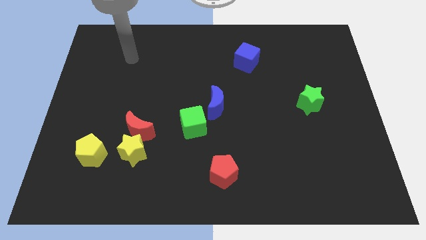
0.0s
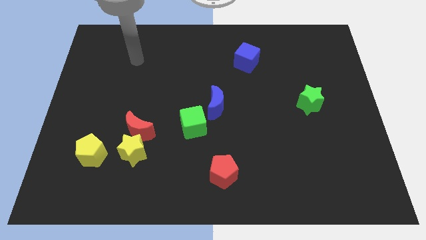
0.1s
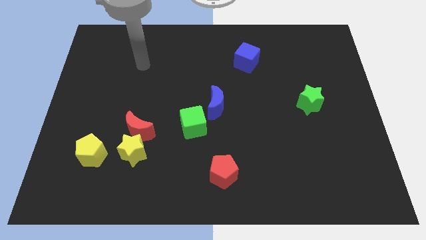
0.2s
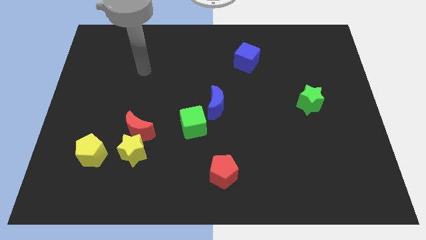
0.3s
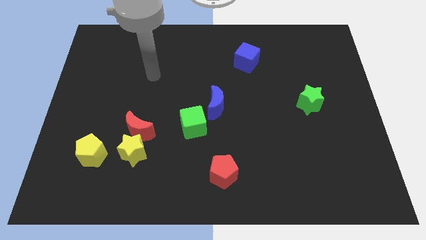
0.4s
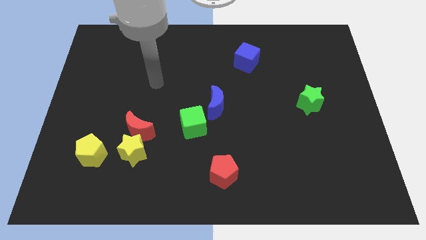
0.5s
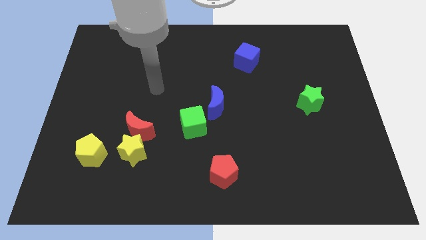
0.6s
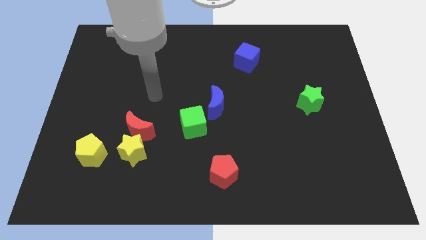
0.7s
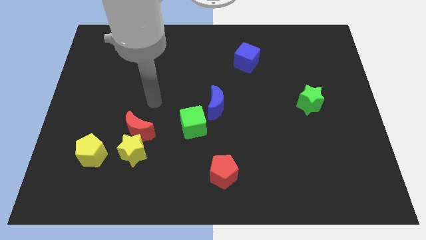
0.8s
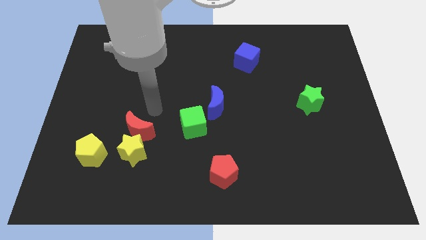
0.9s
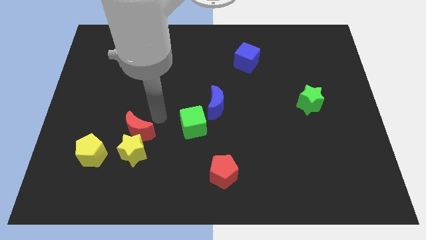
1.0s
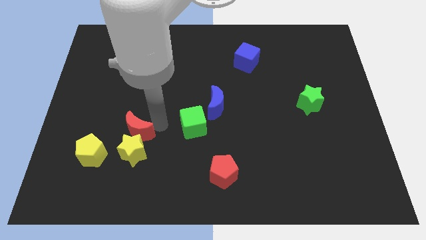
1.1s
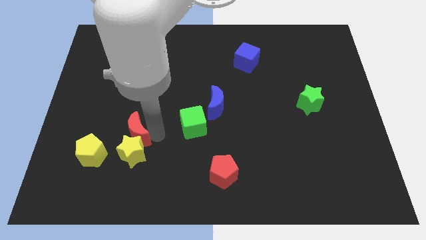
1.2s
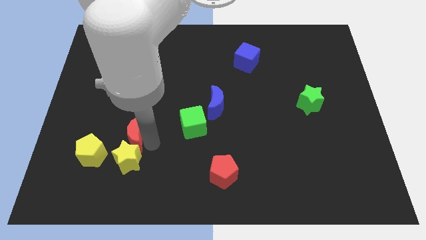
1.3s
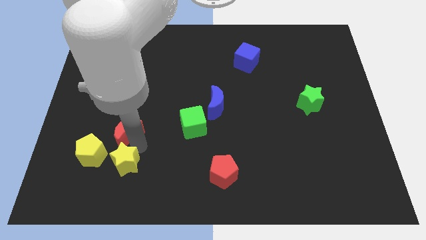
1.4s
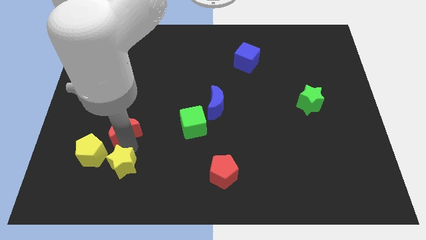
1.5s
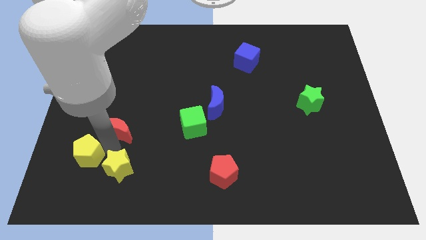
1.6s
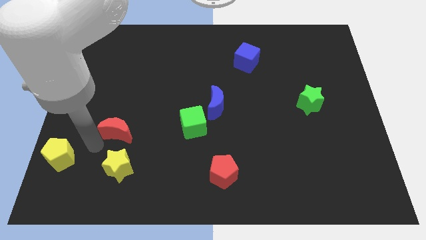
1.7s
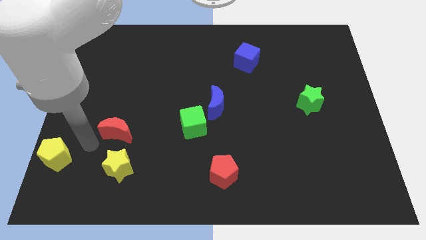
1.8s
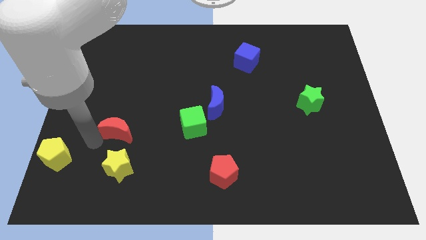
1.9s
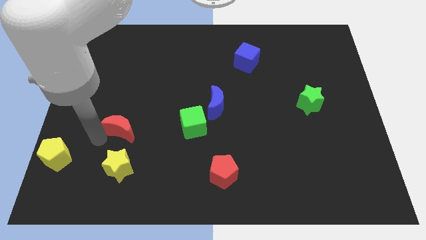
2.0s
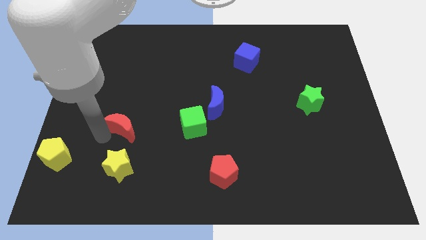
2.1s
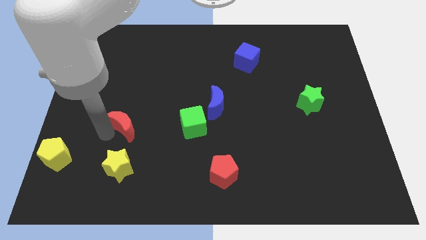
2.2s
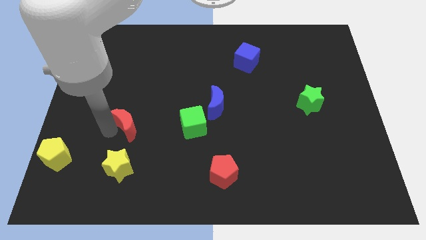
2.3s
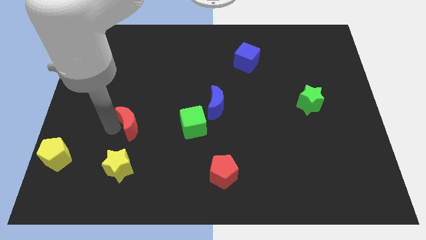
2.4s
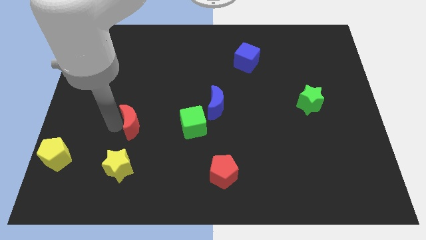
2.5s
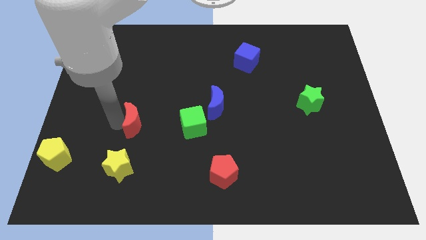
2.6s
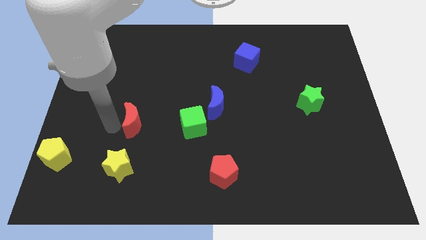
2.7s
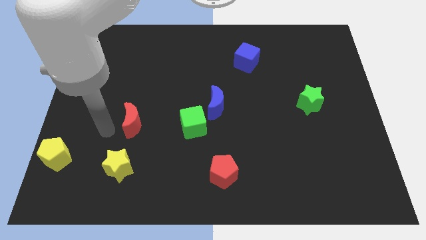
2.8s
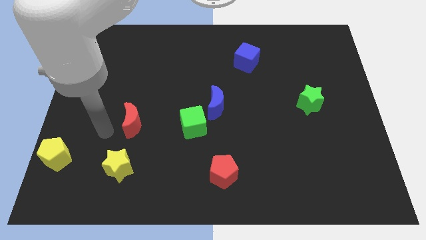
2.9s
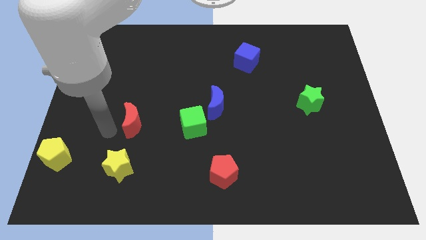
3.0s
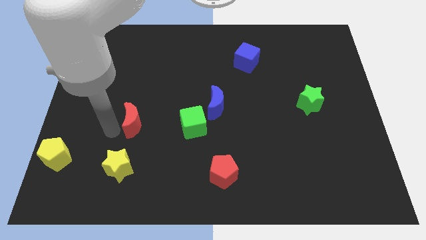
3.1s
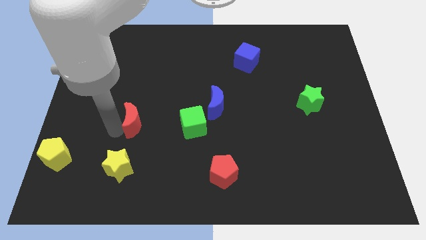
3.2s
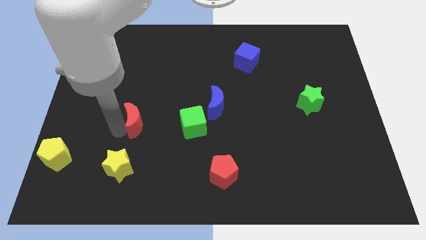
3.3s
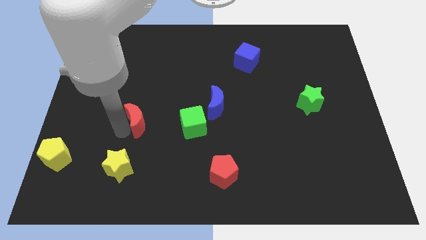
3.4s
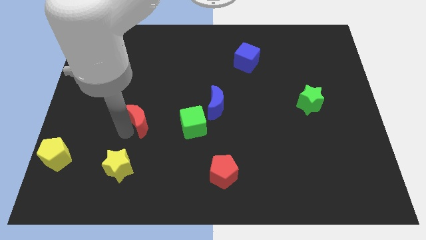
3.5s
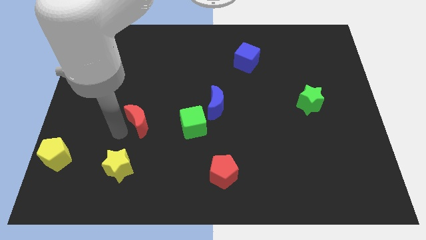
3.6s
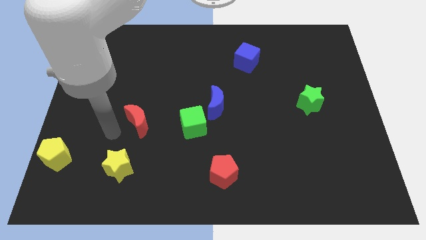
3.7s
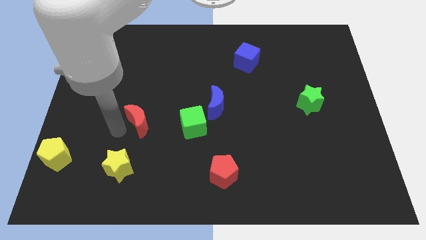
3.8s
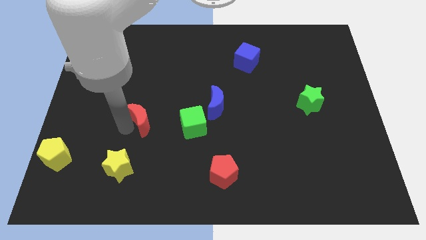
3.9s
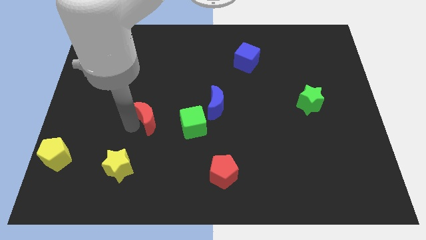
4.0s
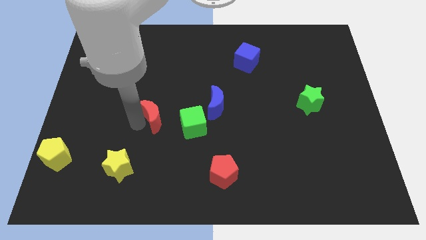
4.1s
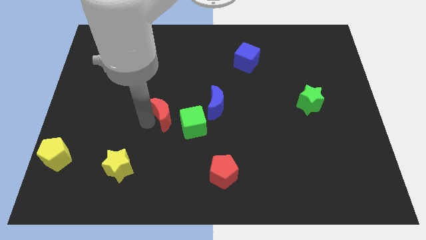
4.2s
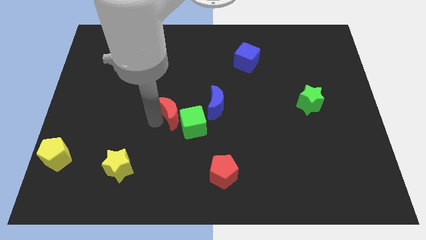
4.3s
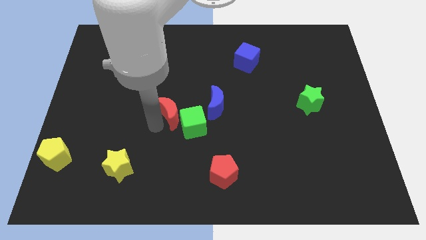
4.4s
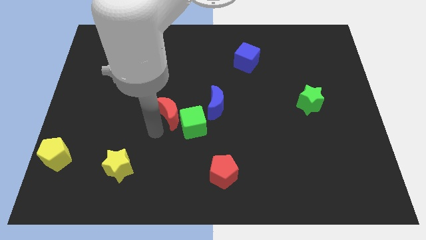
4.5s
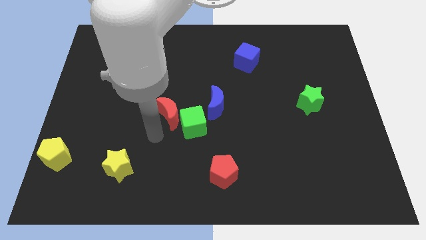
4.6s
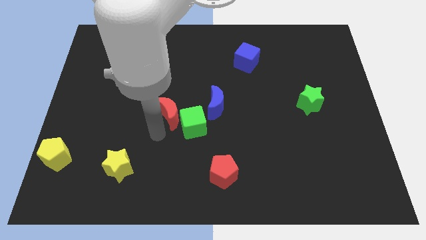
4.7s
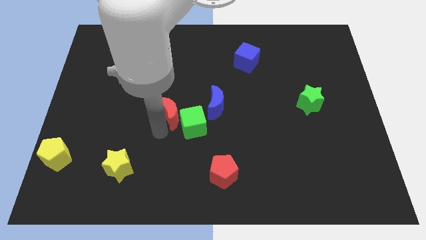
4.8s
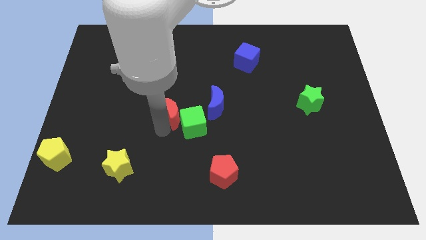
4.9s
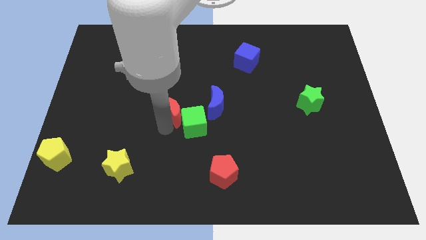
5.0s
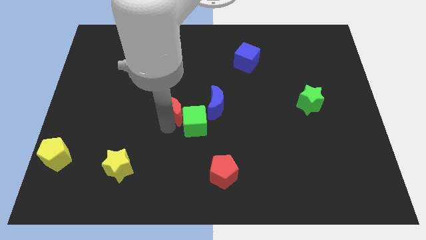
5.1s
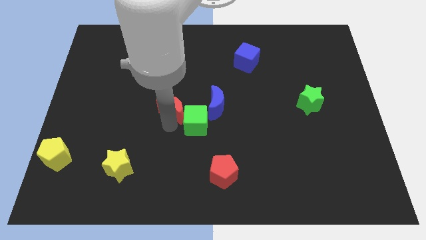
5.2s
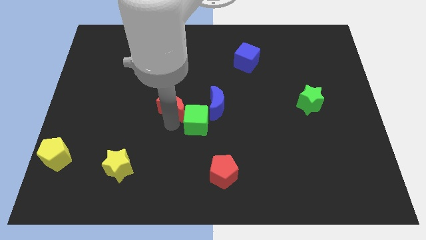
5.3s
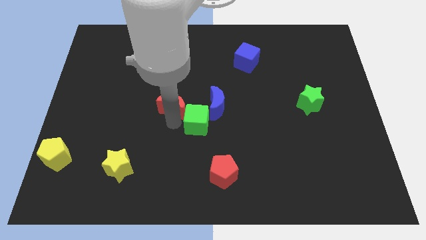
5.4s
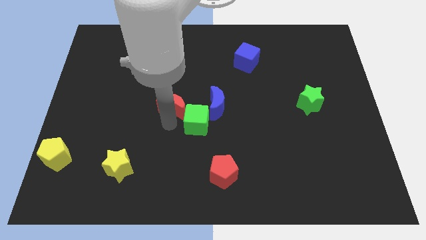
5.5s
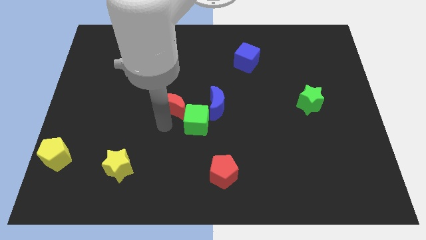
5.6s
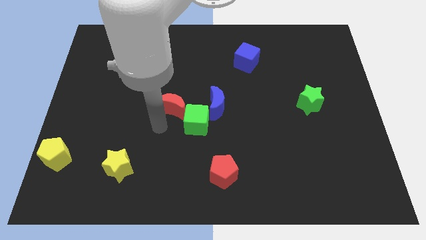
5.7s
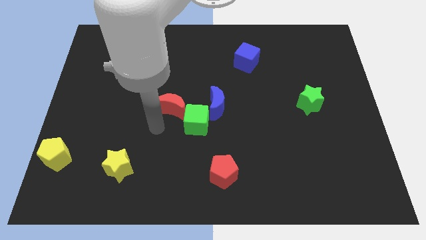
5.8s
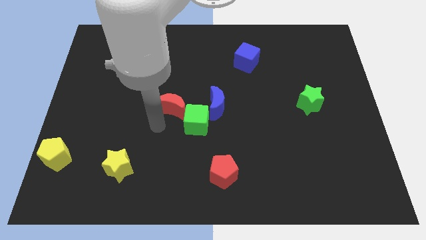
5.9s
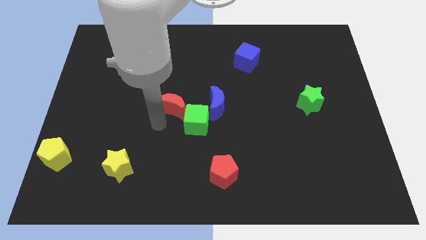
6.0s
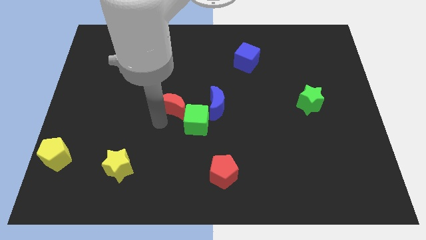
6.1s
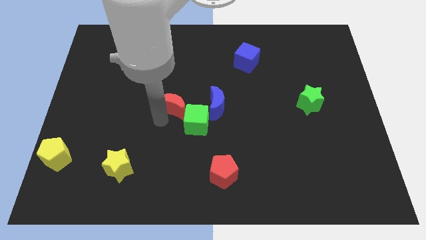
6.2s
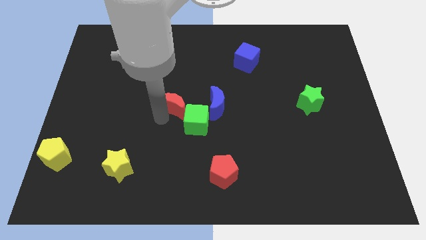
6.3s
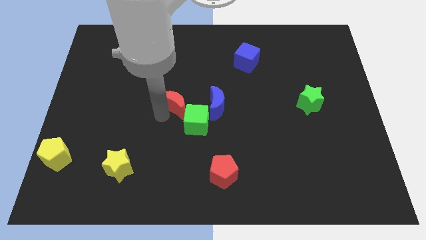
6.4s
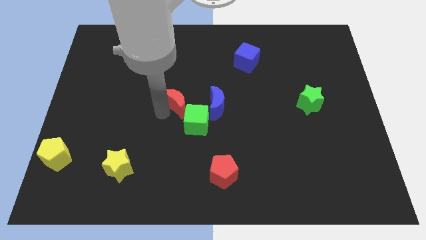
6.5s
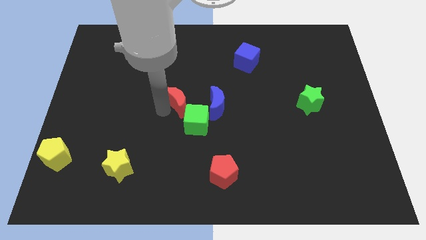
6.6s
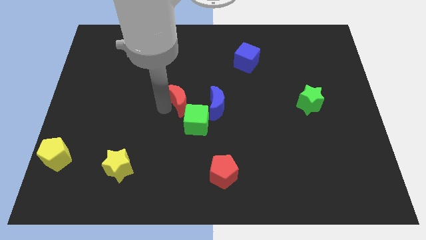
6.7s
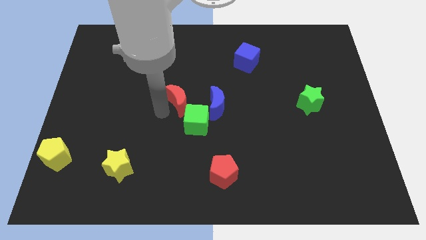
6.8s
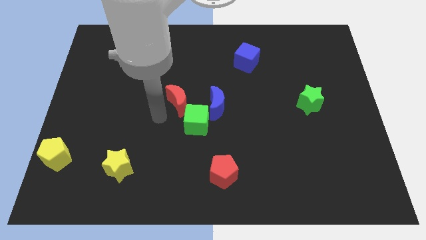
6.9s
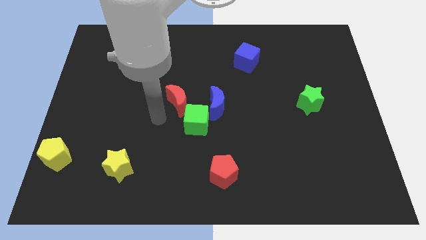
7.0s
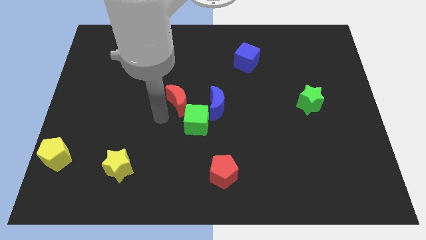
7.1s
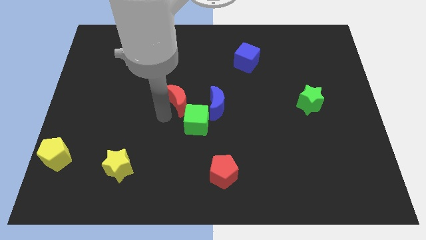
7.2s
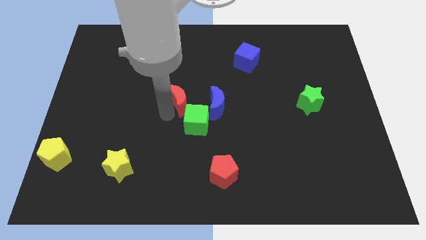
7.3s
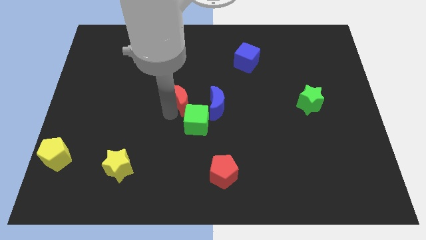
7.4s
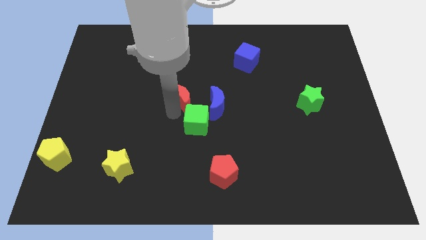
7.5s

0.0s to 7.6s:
push the red moon diagonally up and to the left of the blue moon

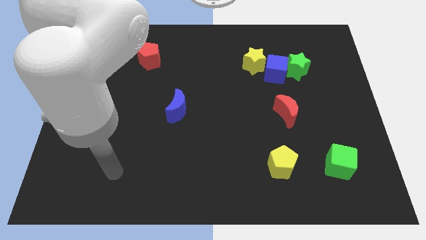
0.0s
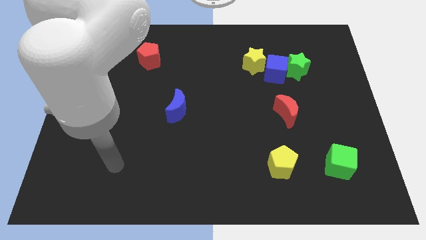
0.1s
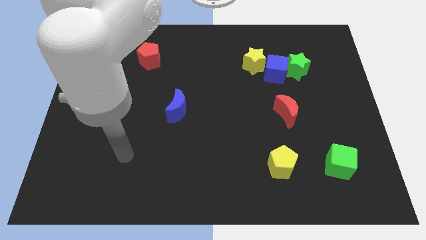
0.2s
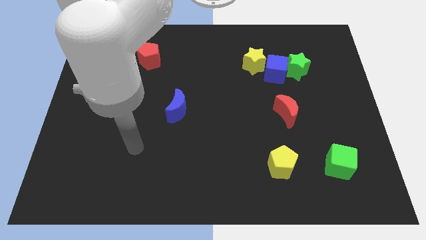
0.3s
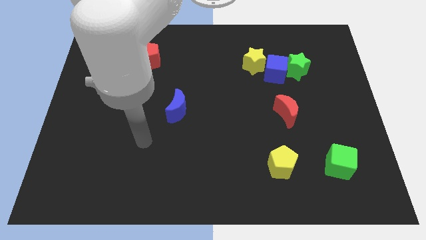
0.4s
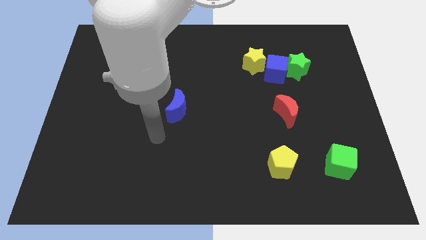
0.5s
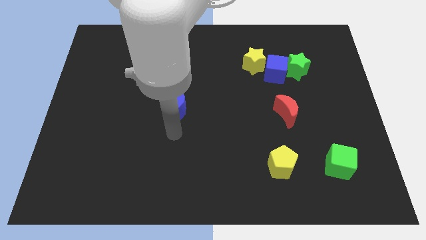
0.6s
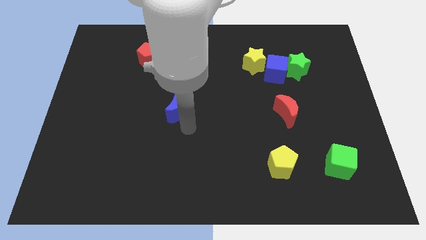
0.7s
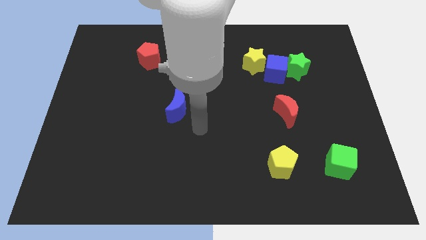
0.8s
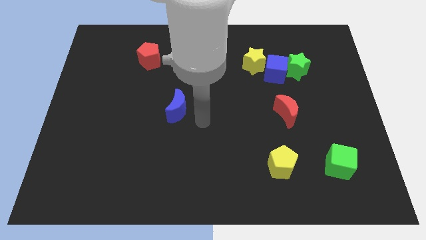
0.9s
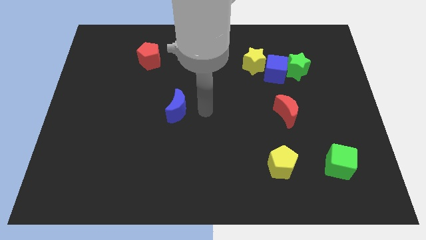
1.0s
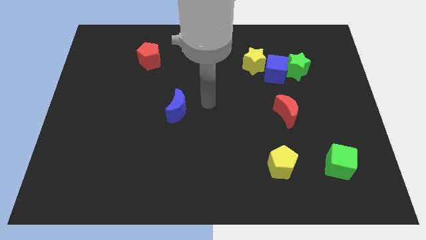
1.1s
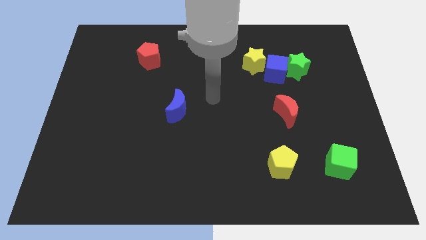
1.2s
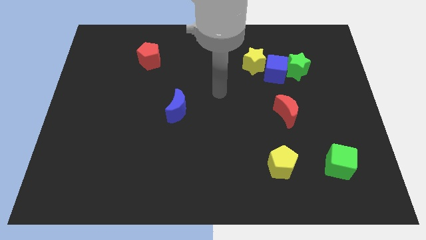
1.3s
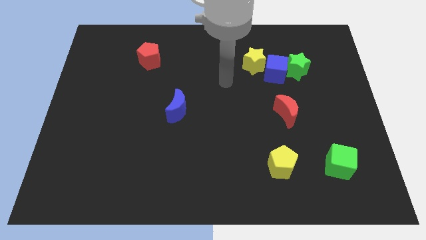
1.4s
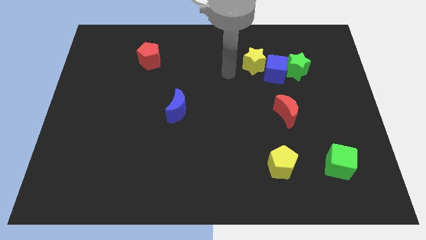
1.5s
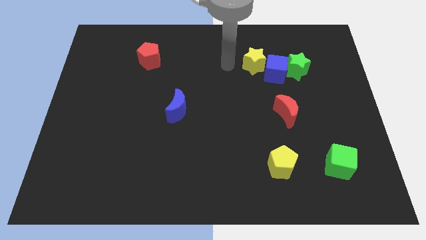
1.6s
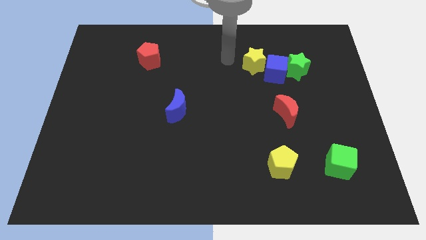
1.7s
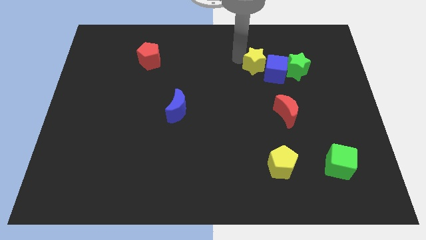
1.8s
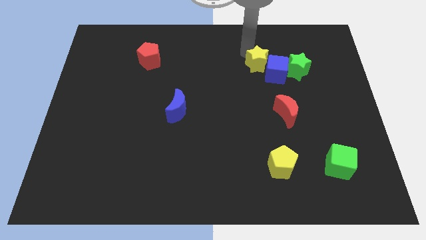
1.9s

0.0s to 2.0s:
slide the blue cube to the bottom of the yellow star
